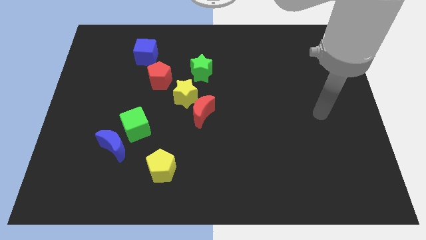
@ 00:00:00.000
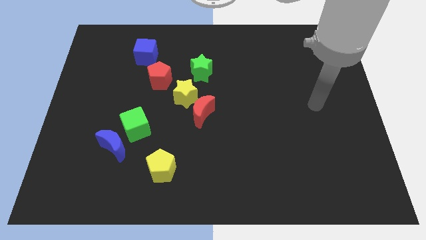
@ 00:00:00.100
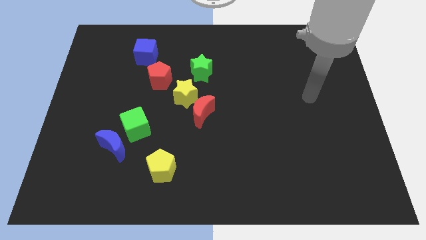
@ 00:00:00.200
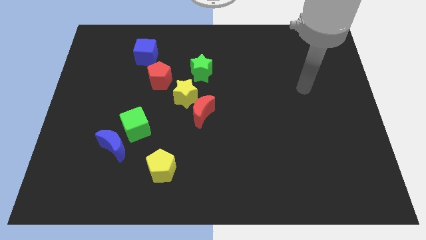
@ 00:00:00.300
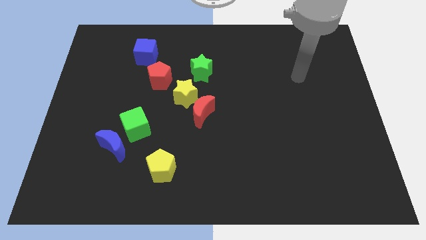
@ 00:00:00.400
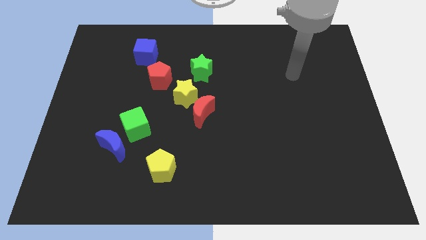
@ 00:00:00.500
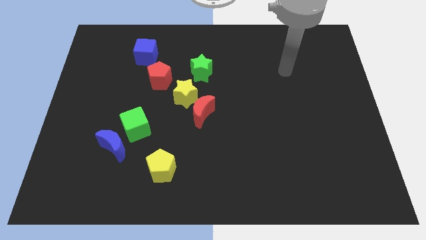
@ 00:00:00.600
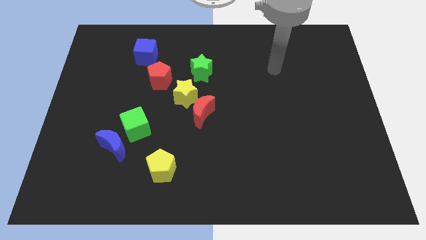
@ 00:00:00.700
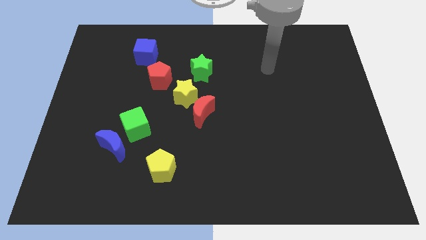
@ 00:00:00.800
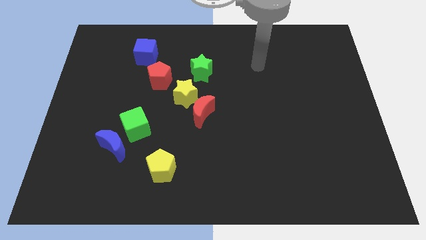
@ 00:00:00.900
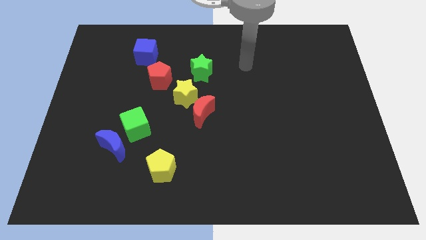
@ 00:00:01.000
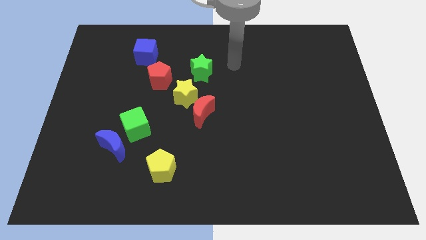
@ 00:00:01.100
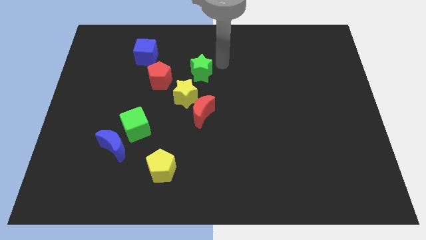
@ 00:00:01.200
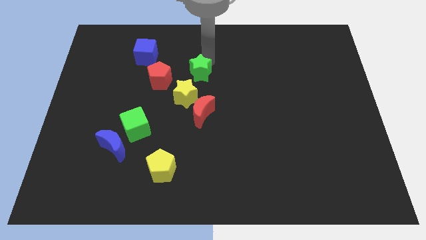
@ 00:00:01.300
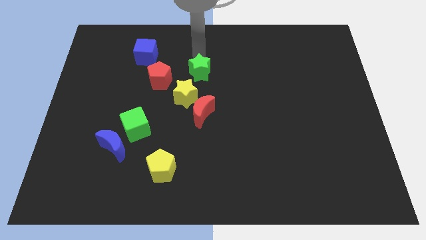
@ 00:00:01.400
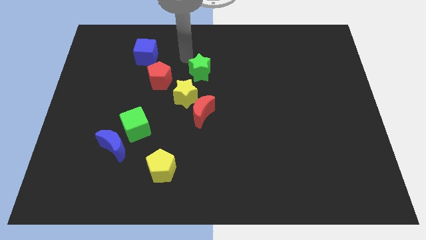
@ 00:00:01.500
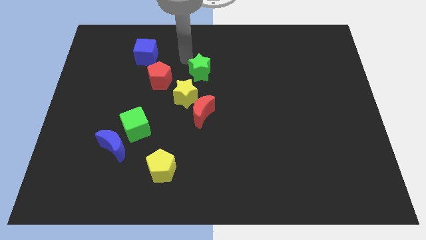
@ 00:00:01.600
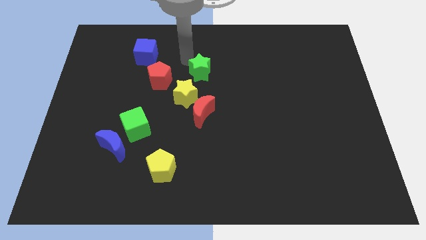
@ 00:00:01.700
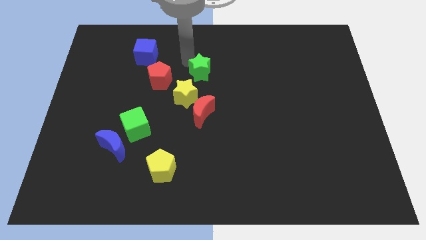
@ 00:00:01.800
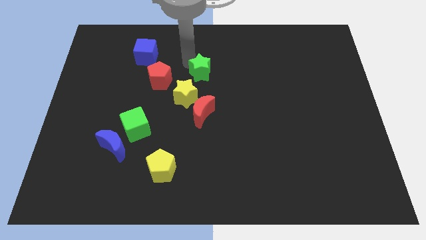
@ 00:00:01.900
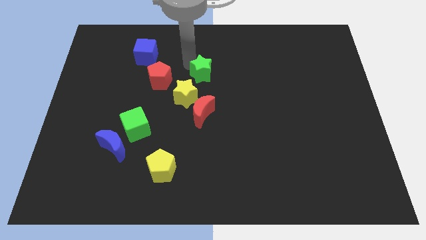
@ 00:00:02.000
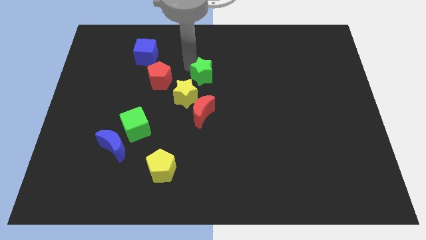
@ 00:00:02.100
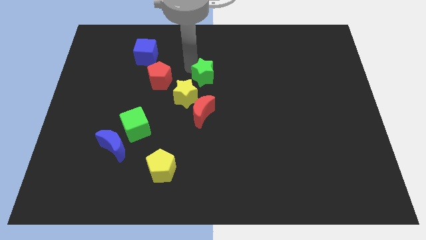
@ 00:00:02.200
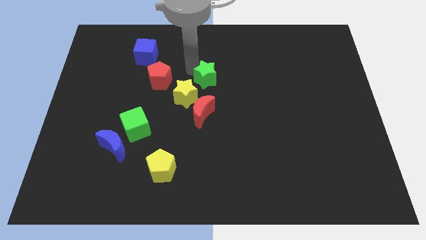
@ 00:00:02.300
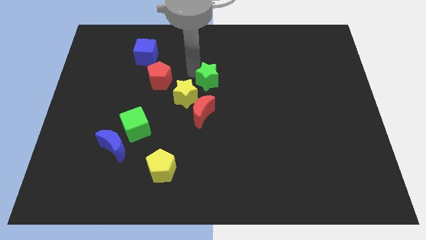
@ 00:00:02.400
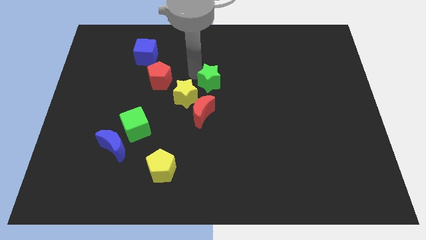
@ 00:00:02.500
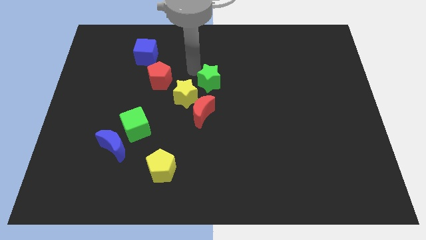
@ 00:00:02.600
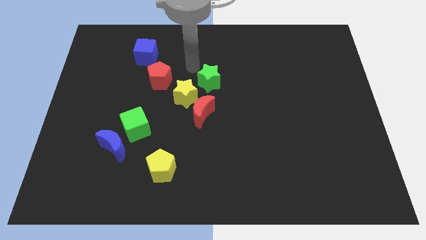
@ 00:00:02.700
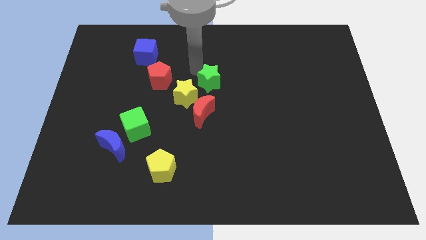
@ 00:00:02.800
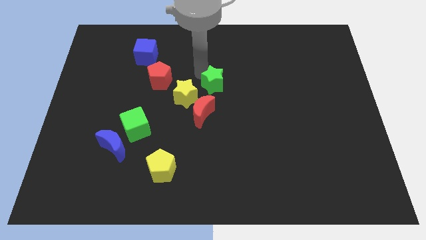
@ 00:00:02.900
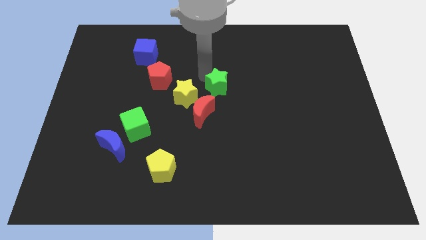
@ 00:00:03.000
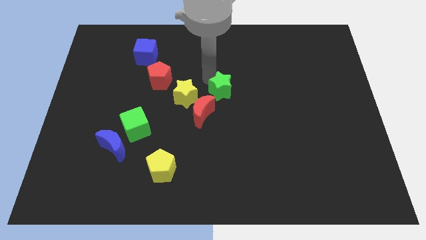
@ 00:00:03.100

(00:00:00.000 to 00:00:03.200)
slide the green star down and right somewhat

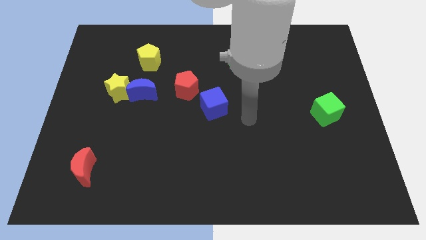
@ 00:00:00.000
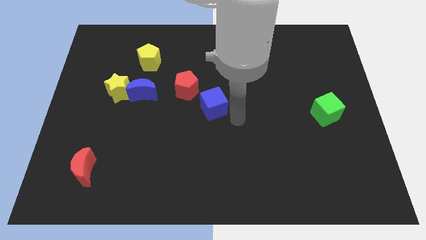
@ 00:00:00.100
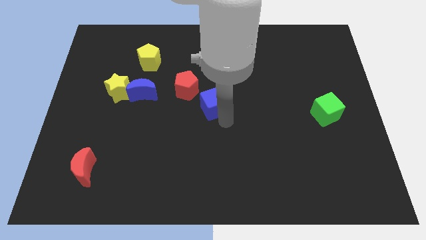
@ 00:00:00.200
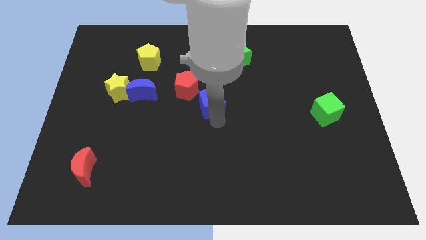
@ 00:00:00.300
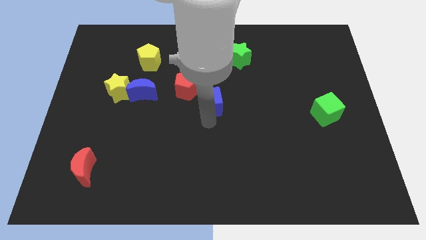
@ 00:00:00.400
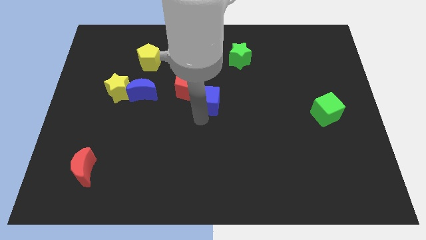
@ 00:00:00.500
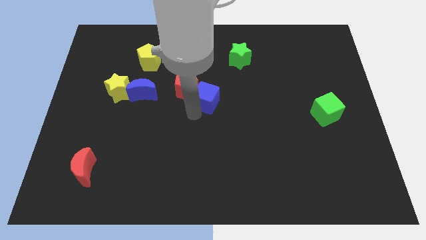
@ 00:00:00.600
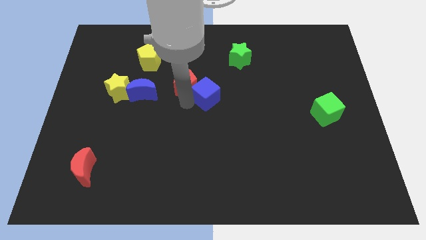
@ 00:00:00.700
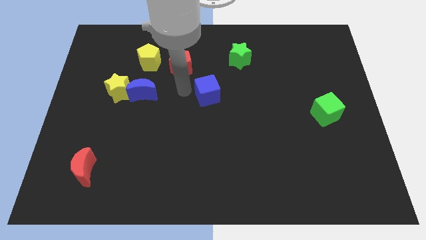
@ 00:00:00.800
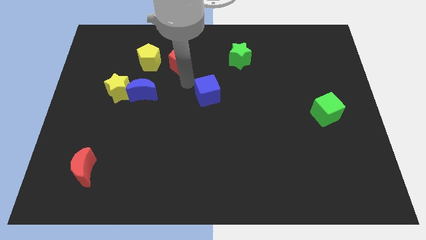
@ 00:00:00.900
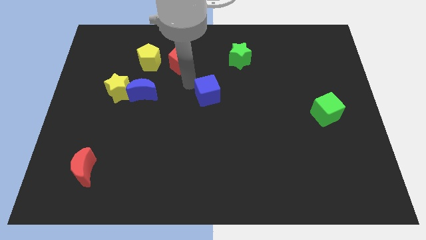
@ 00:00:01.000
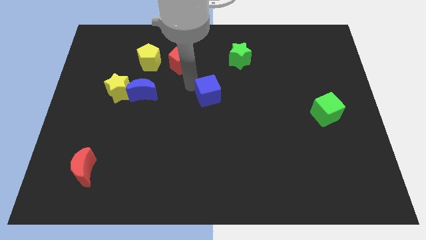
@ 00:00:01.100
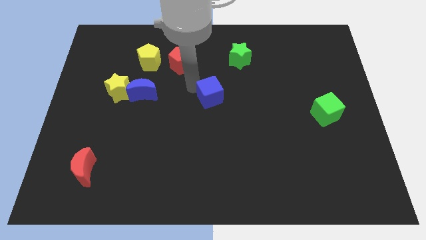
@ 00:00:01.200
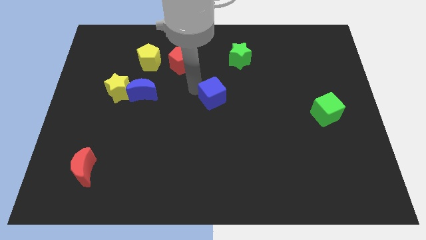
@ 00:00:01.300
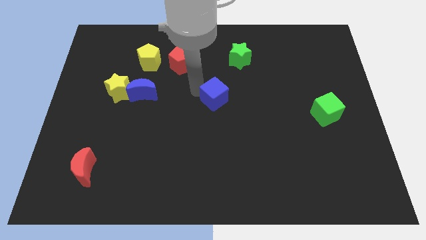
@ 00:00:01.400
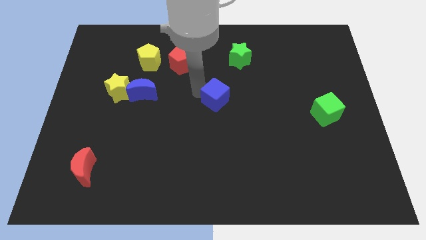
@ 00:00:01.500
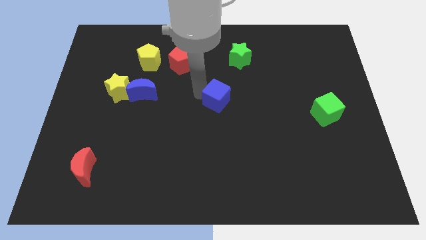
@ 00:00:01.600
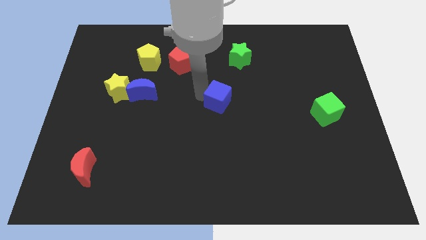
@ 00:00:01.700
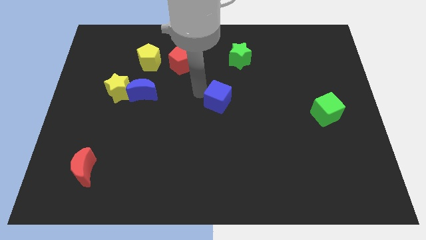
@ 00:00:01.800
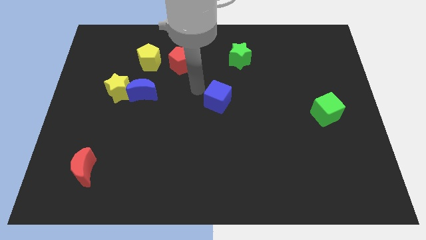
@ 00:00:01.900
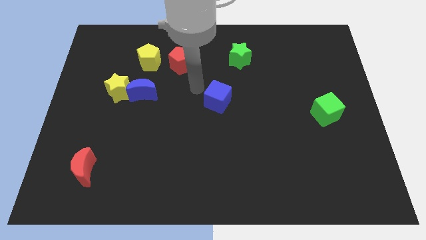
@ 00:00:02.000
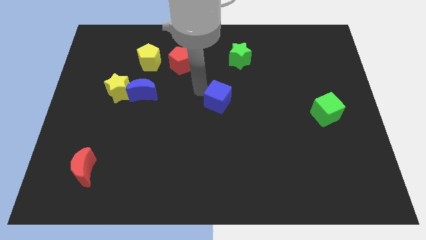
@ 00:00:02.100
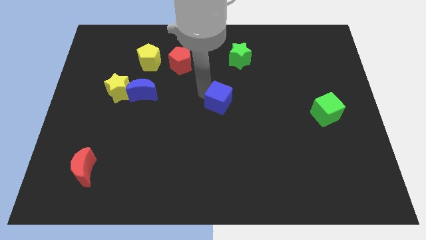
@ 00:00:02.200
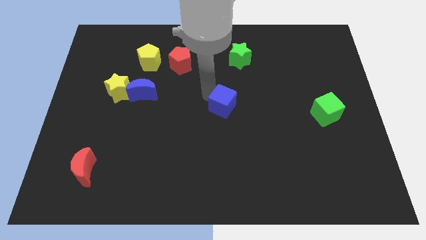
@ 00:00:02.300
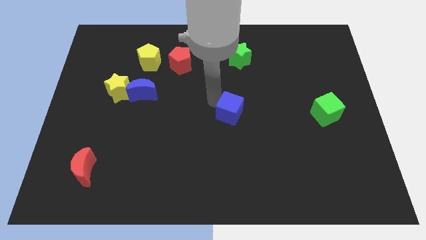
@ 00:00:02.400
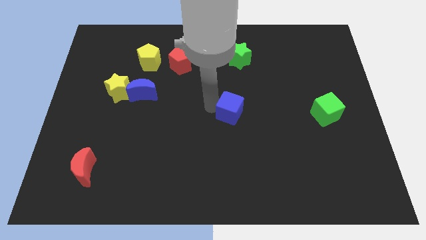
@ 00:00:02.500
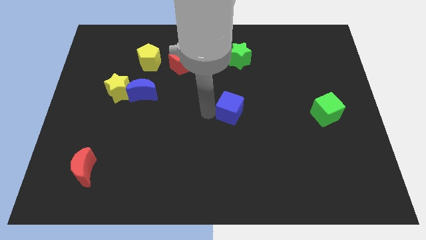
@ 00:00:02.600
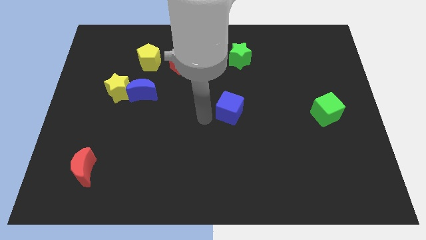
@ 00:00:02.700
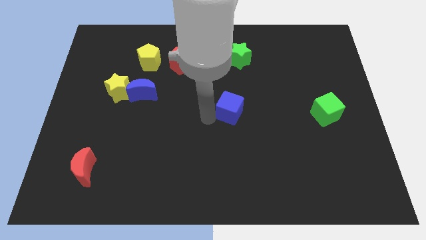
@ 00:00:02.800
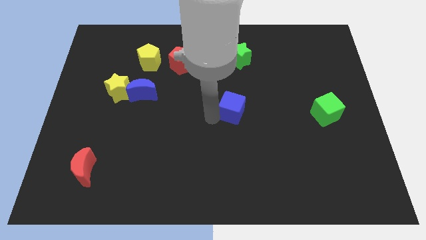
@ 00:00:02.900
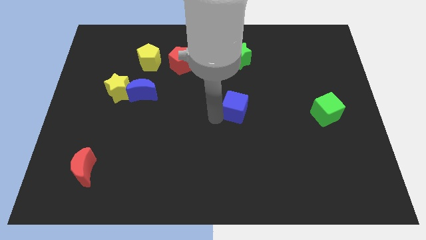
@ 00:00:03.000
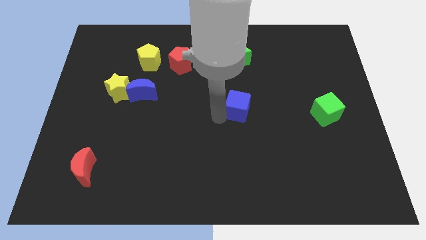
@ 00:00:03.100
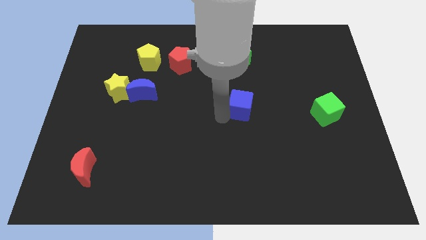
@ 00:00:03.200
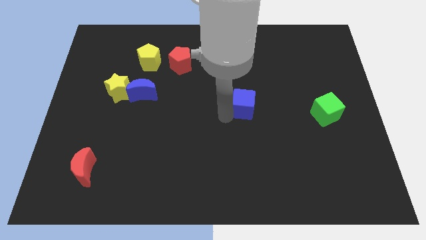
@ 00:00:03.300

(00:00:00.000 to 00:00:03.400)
move the blue cube a little bit to the right

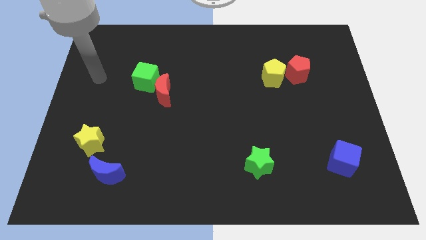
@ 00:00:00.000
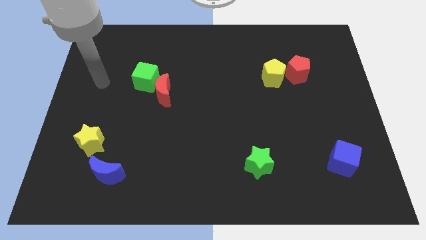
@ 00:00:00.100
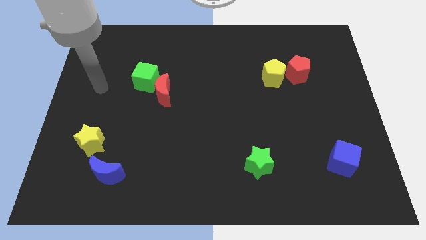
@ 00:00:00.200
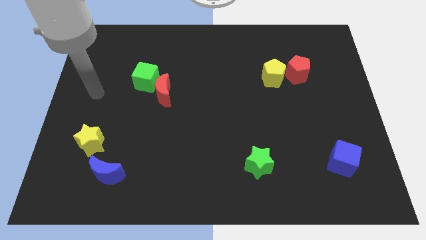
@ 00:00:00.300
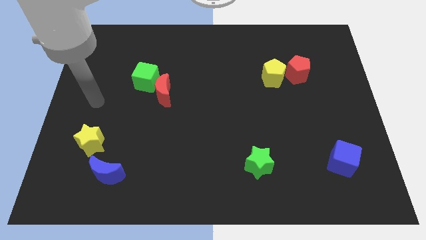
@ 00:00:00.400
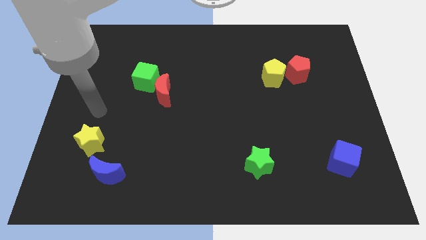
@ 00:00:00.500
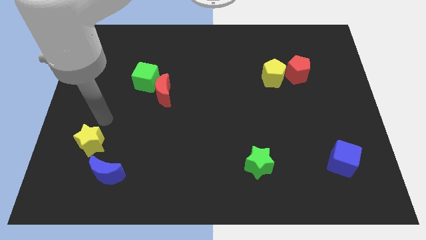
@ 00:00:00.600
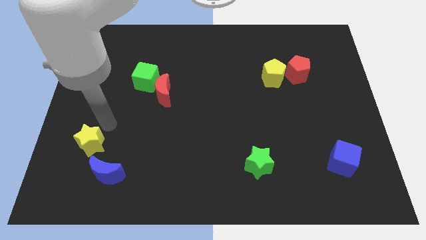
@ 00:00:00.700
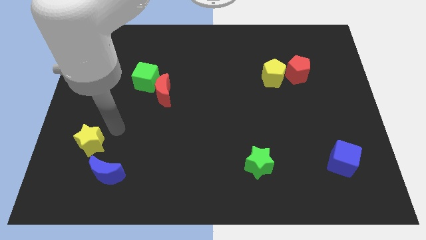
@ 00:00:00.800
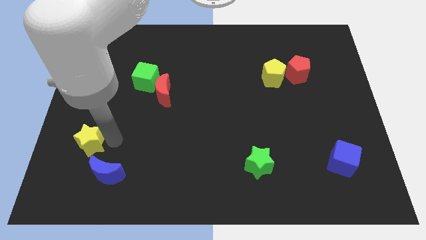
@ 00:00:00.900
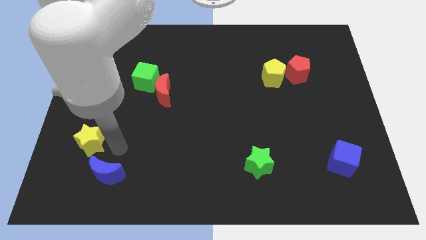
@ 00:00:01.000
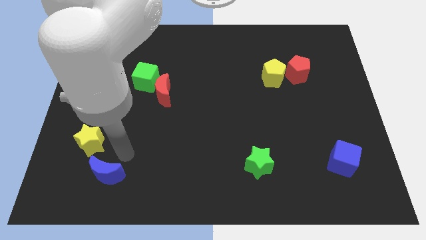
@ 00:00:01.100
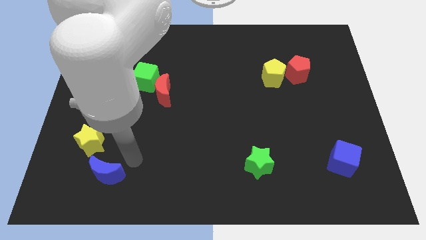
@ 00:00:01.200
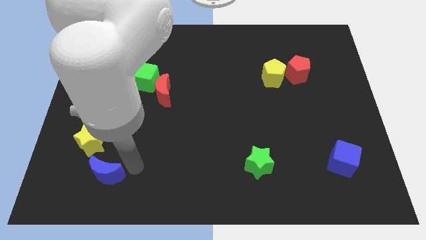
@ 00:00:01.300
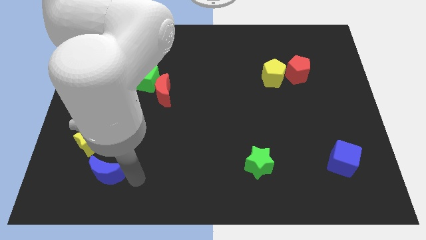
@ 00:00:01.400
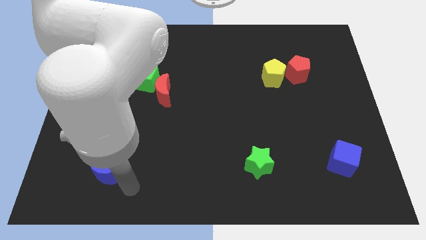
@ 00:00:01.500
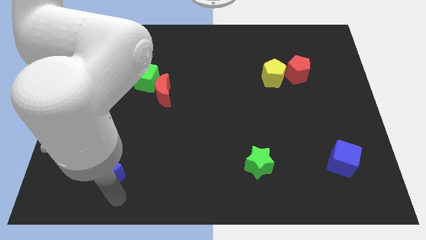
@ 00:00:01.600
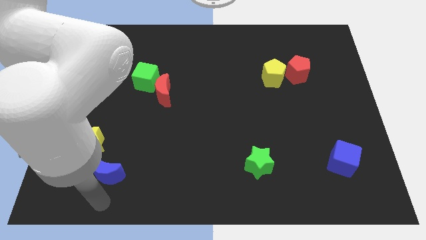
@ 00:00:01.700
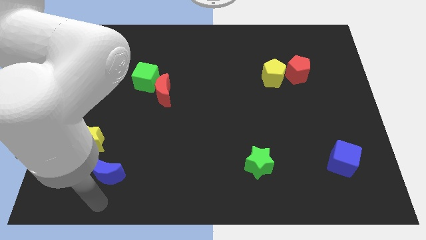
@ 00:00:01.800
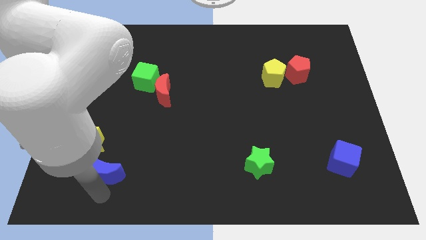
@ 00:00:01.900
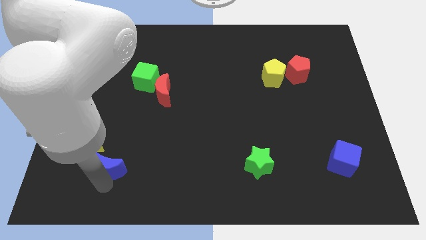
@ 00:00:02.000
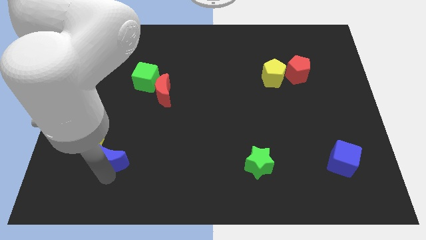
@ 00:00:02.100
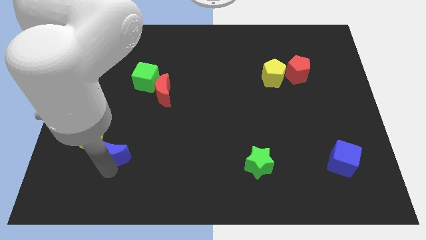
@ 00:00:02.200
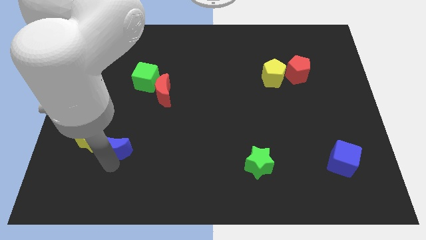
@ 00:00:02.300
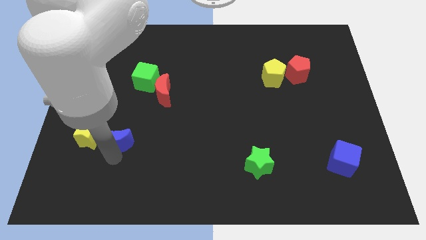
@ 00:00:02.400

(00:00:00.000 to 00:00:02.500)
push the blue moon a little bit upwards
